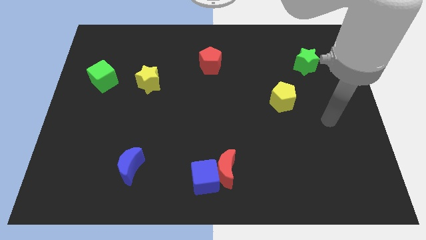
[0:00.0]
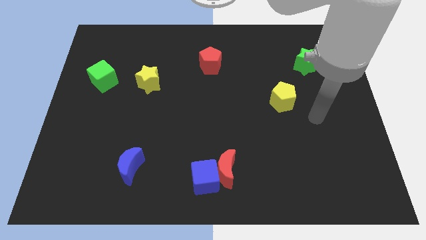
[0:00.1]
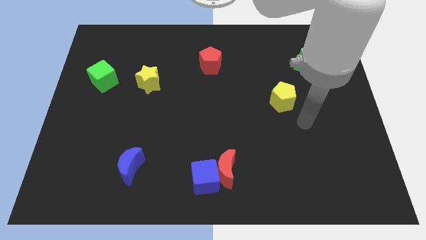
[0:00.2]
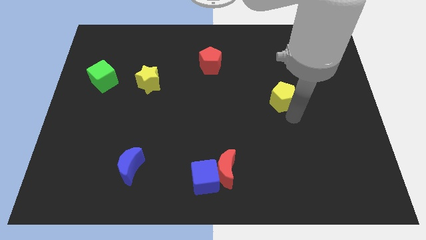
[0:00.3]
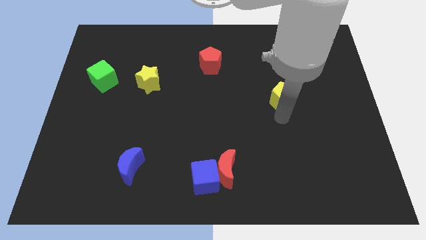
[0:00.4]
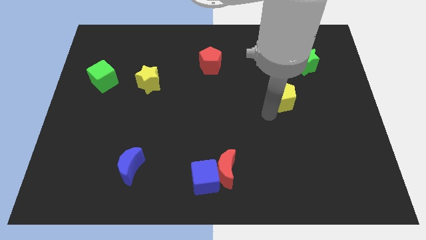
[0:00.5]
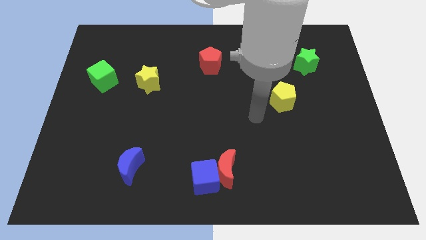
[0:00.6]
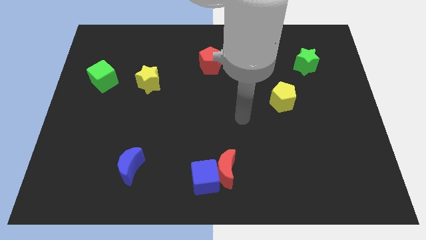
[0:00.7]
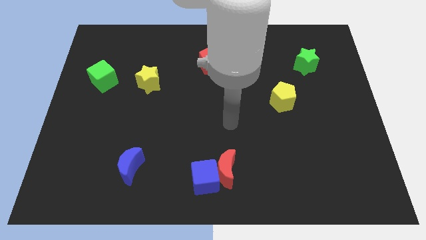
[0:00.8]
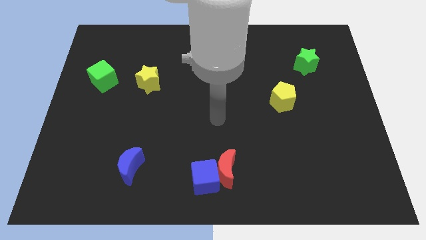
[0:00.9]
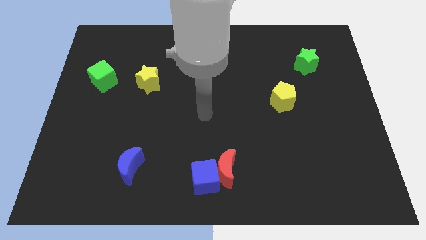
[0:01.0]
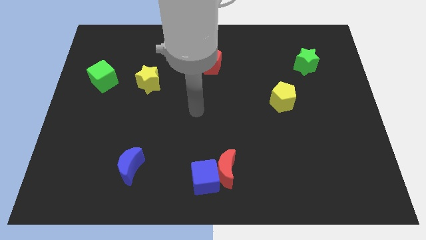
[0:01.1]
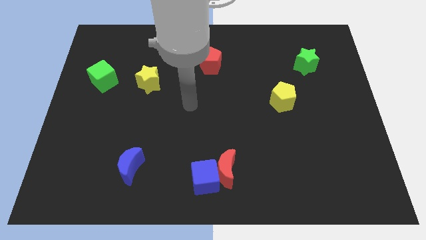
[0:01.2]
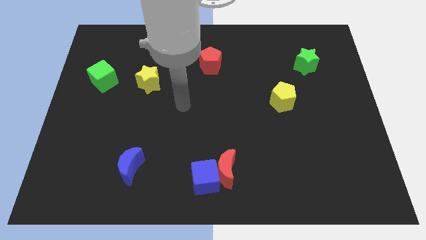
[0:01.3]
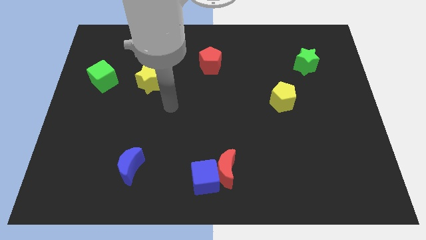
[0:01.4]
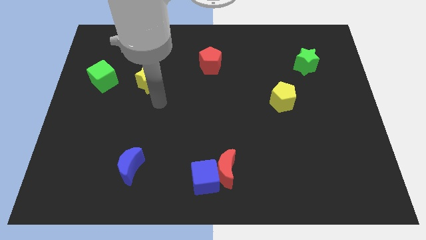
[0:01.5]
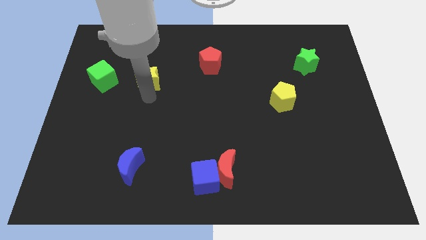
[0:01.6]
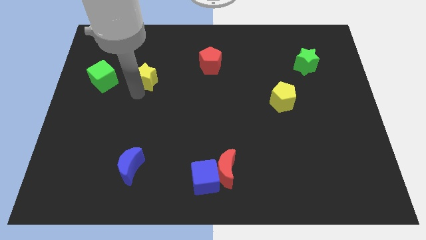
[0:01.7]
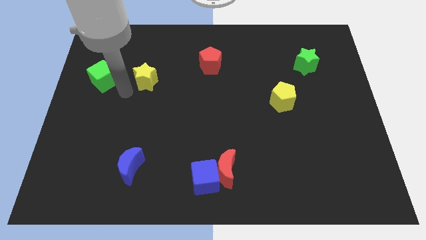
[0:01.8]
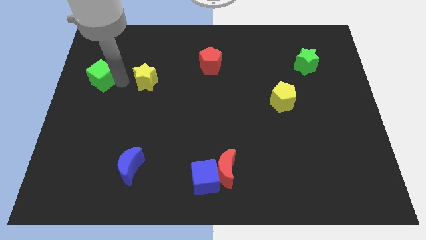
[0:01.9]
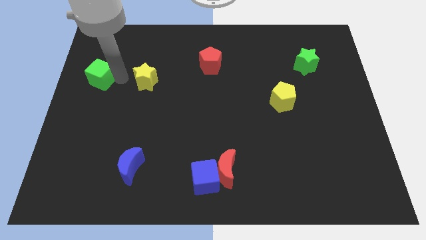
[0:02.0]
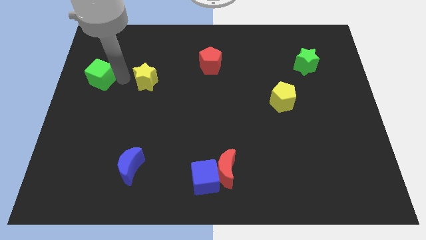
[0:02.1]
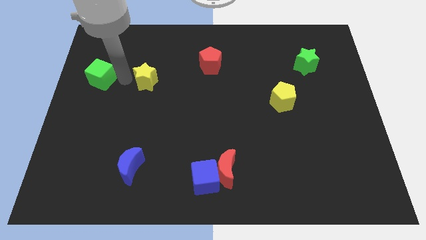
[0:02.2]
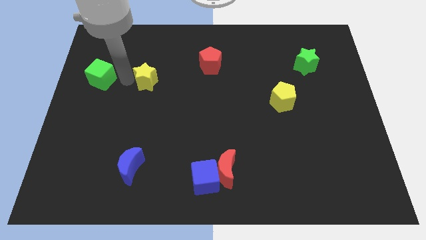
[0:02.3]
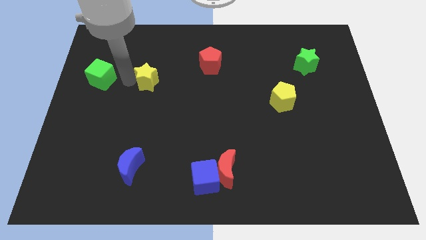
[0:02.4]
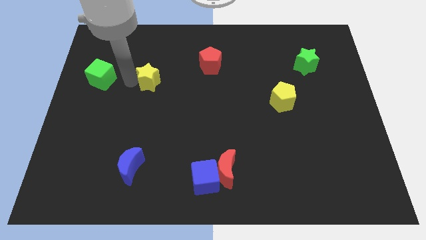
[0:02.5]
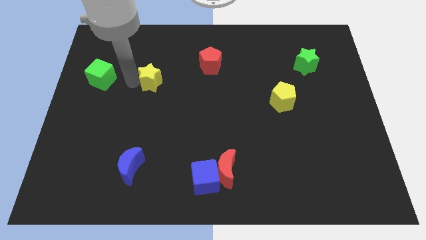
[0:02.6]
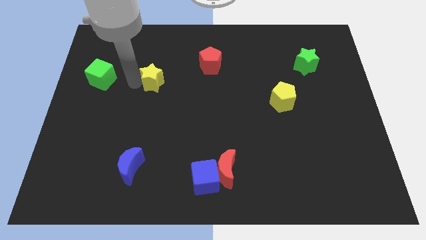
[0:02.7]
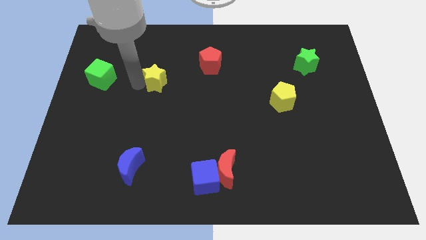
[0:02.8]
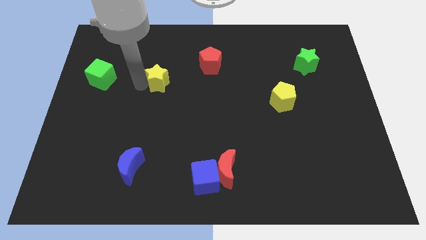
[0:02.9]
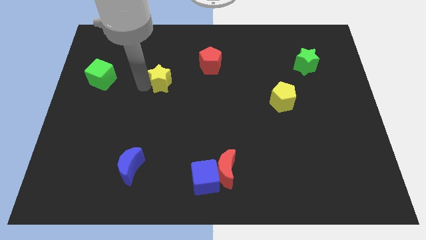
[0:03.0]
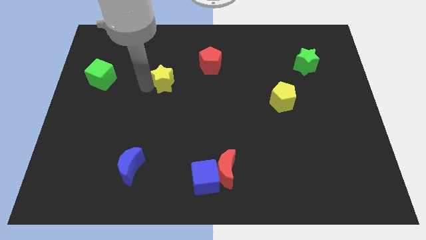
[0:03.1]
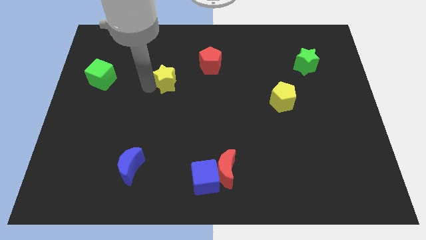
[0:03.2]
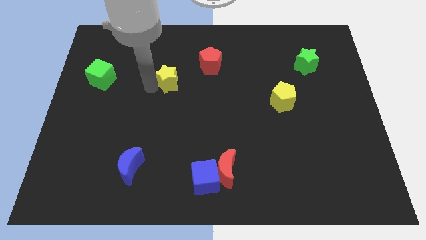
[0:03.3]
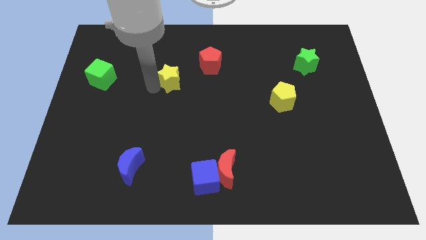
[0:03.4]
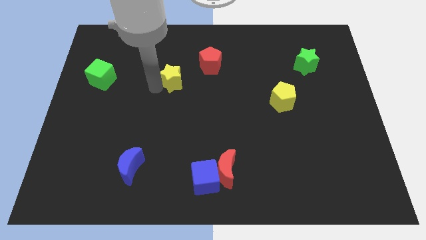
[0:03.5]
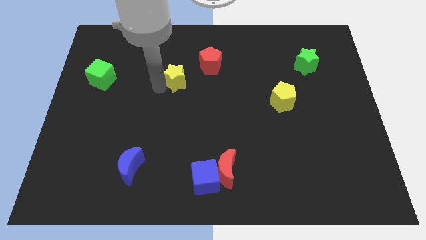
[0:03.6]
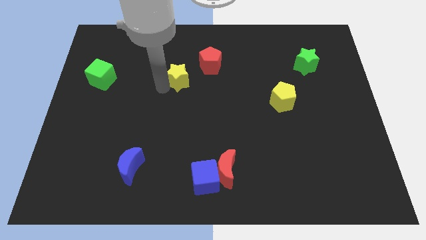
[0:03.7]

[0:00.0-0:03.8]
slide the yellow star somewhat to the right

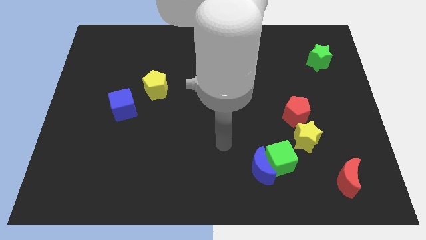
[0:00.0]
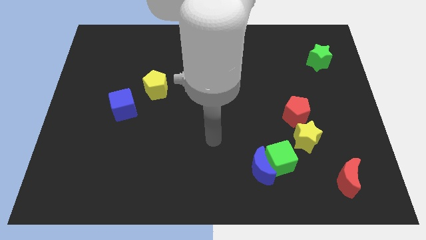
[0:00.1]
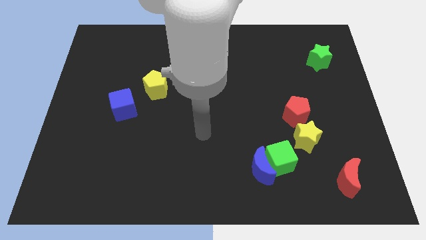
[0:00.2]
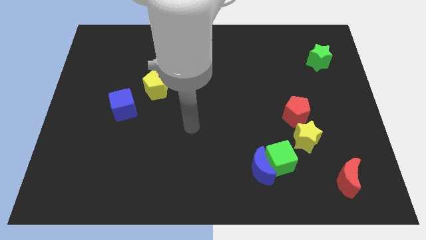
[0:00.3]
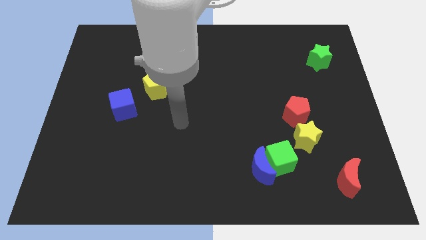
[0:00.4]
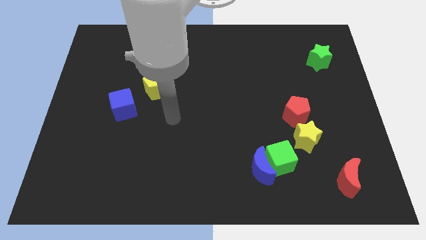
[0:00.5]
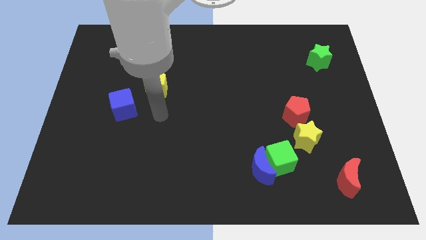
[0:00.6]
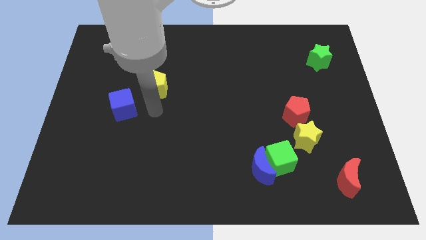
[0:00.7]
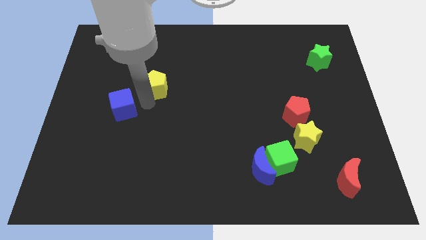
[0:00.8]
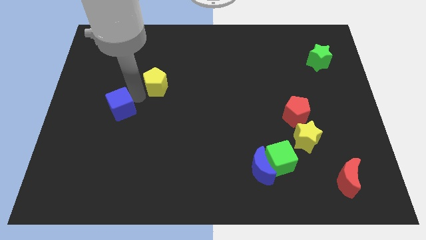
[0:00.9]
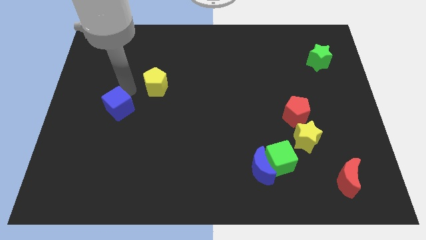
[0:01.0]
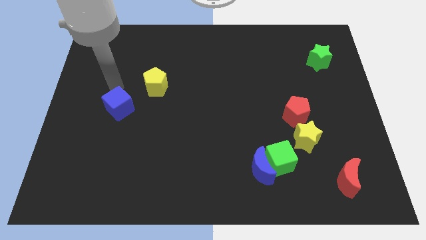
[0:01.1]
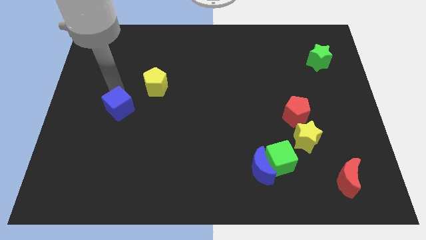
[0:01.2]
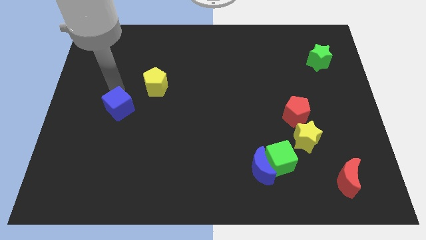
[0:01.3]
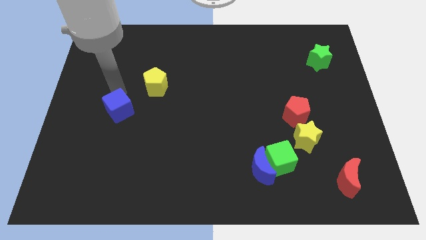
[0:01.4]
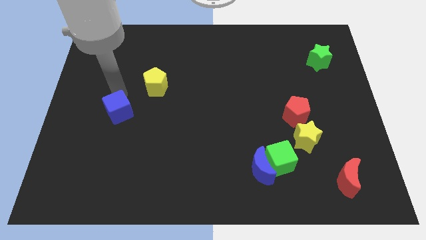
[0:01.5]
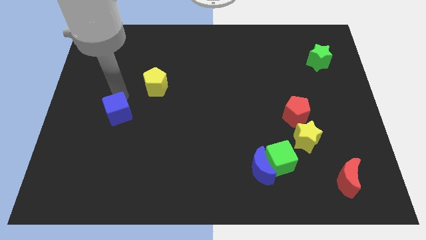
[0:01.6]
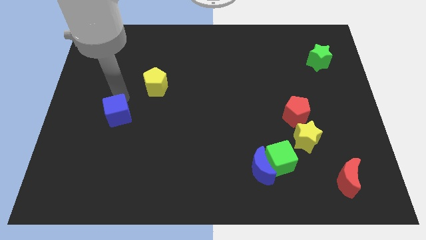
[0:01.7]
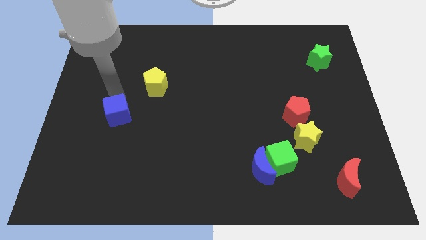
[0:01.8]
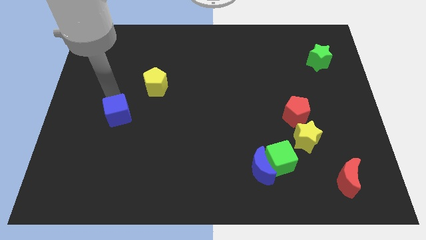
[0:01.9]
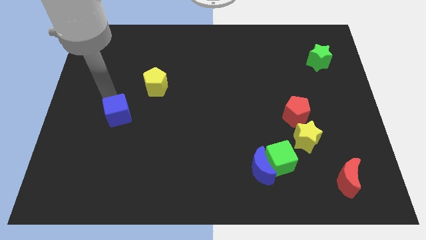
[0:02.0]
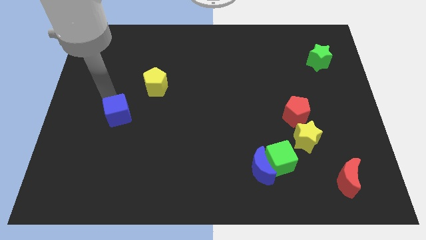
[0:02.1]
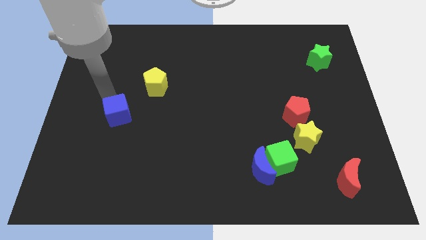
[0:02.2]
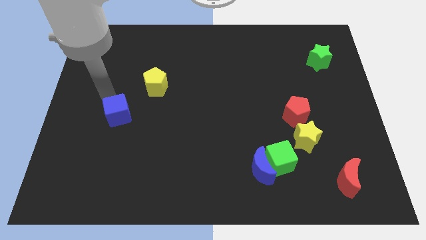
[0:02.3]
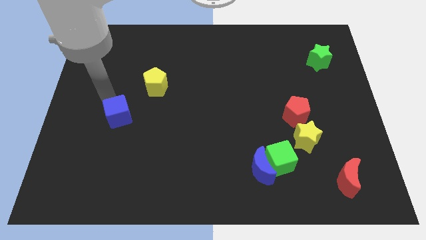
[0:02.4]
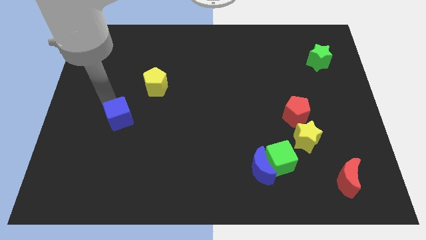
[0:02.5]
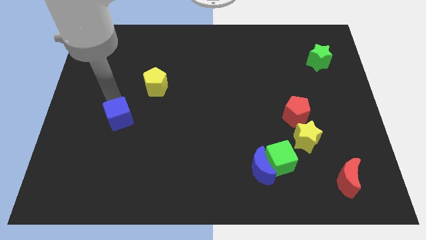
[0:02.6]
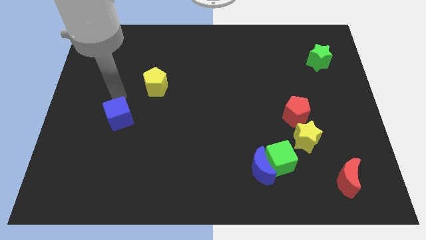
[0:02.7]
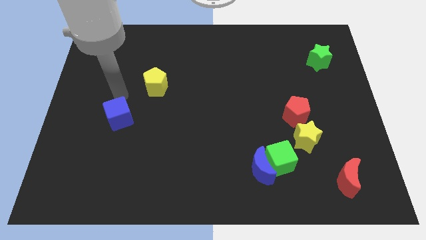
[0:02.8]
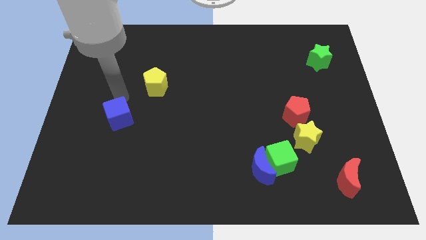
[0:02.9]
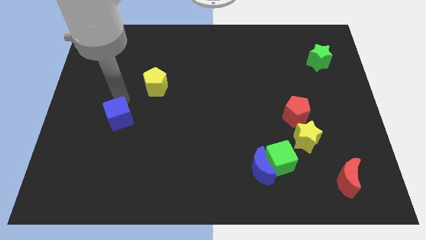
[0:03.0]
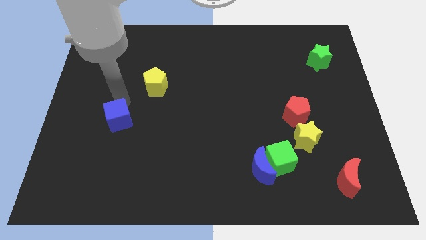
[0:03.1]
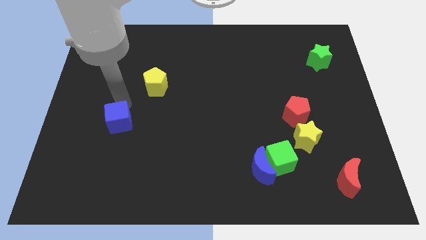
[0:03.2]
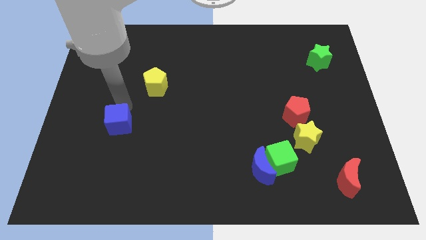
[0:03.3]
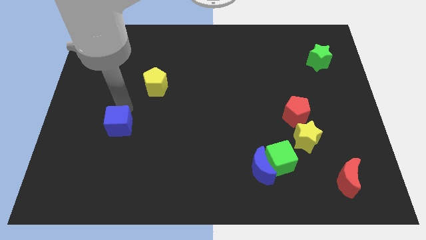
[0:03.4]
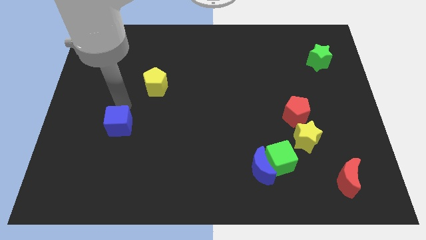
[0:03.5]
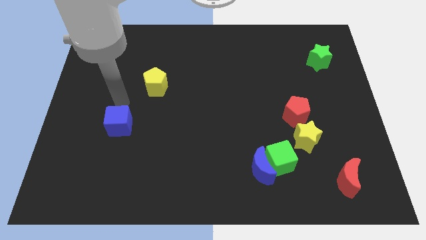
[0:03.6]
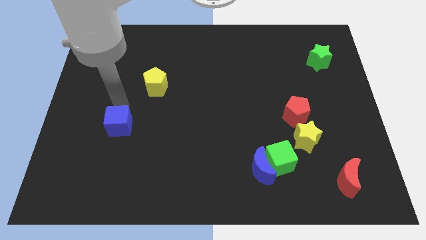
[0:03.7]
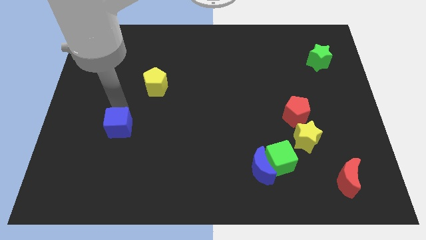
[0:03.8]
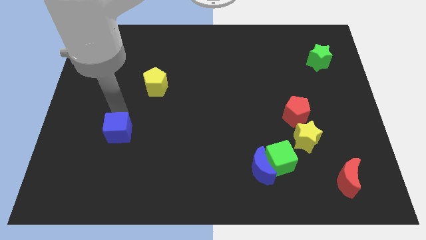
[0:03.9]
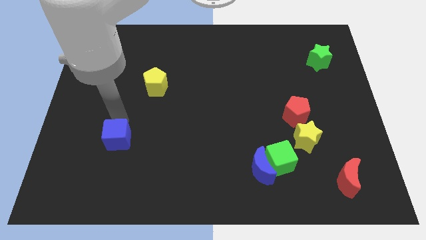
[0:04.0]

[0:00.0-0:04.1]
move the blue cube down slightly

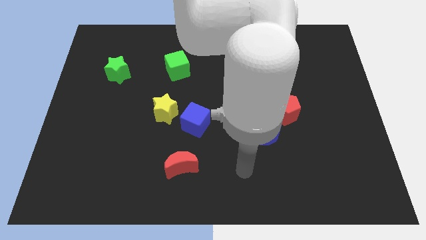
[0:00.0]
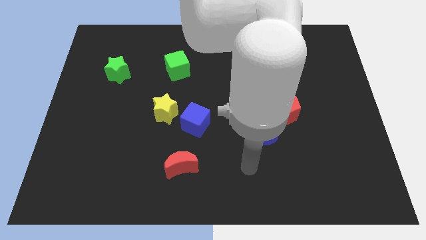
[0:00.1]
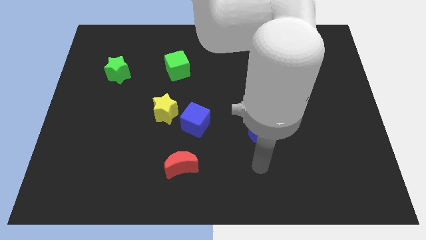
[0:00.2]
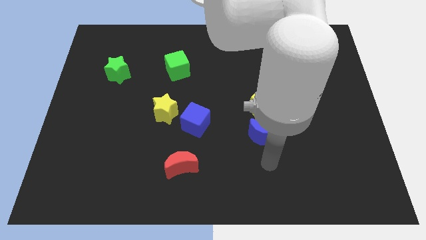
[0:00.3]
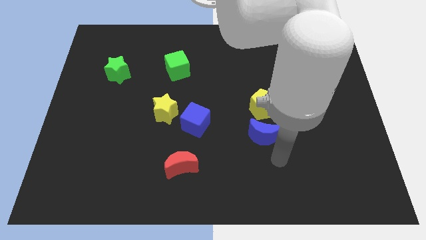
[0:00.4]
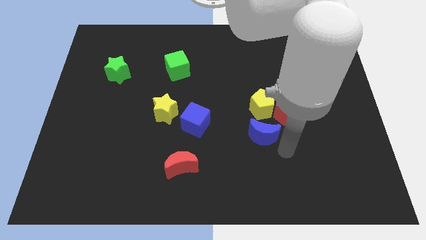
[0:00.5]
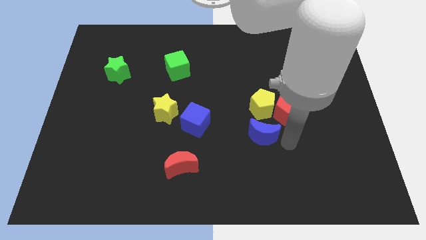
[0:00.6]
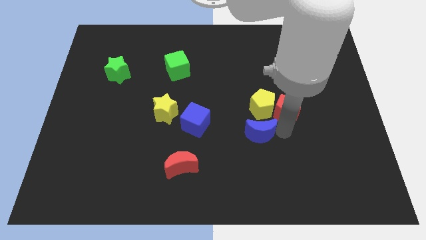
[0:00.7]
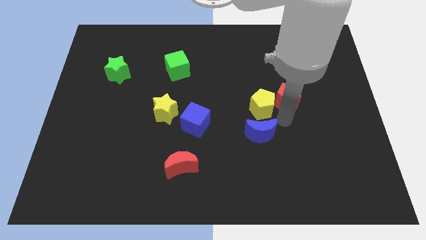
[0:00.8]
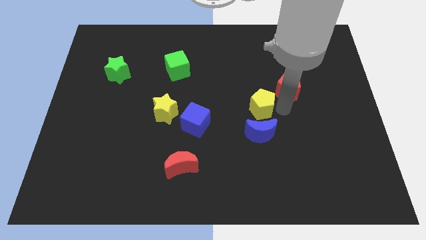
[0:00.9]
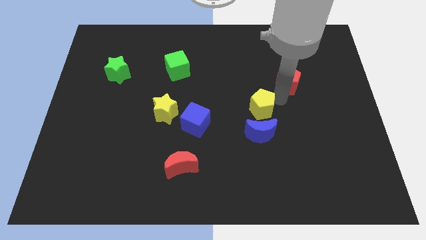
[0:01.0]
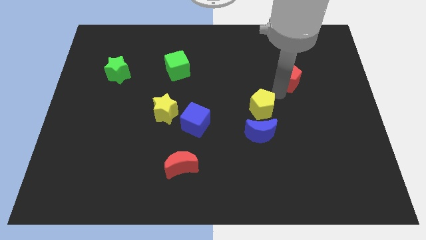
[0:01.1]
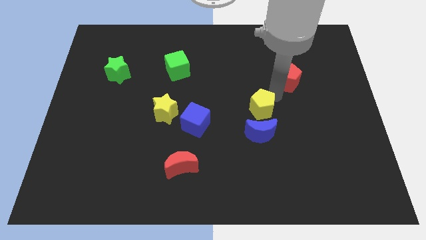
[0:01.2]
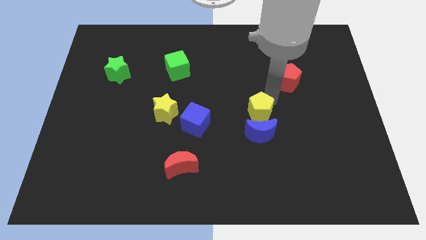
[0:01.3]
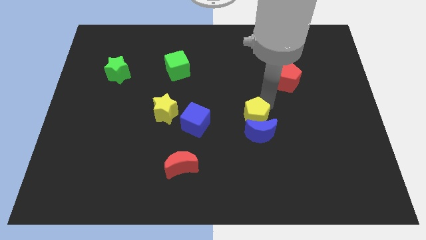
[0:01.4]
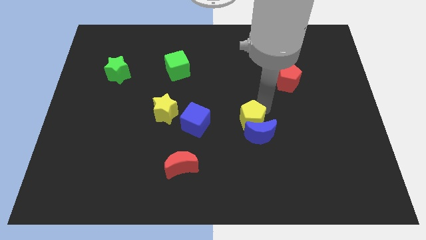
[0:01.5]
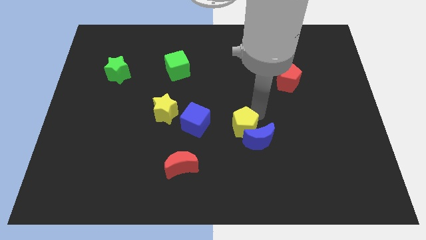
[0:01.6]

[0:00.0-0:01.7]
slide the yellow pentagon downwards and left diagonally somewhat
